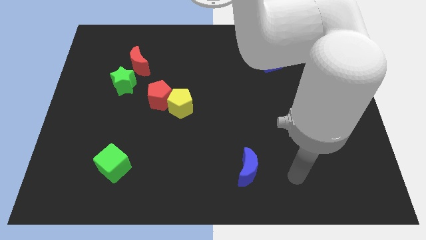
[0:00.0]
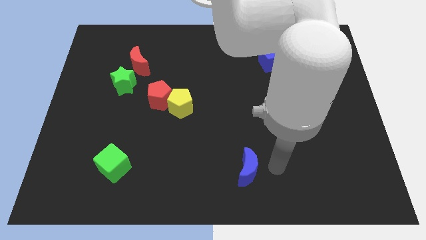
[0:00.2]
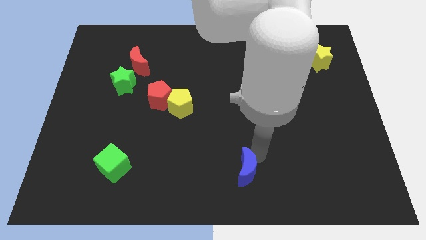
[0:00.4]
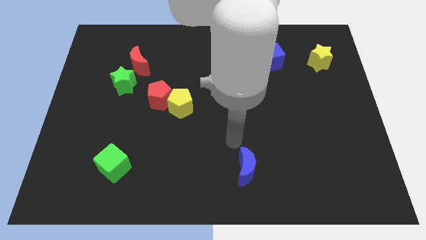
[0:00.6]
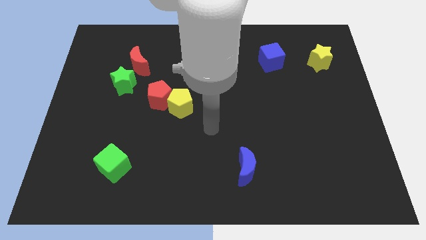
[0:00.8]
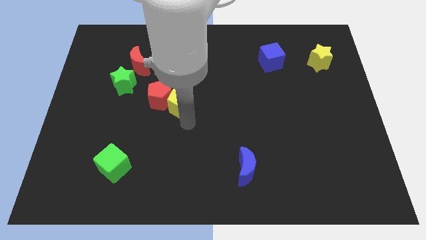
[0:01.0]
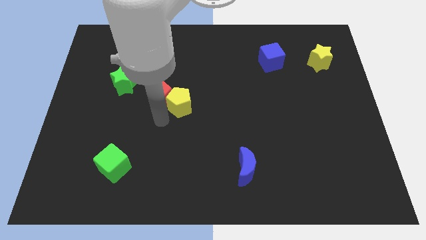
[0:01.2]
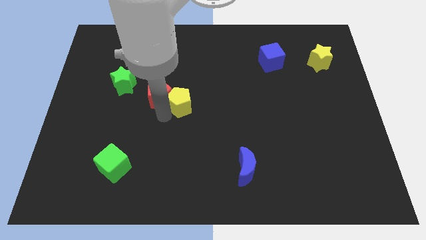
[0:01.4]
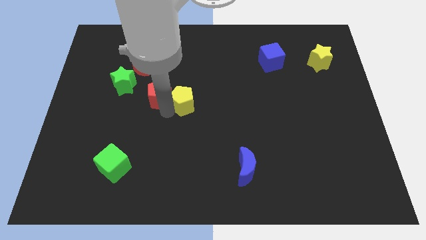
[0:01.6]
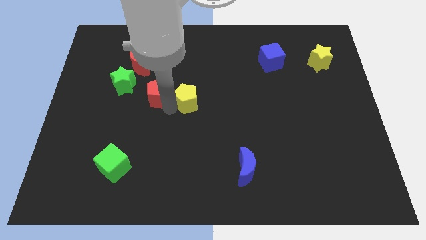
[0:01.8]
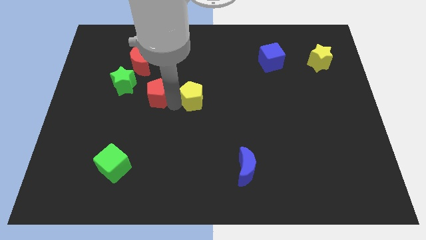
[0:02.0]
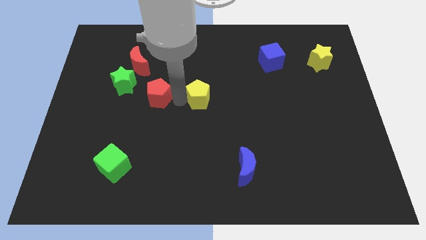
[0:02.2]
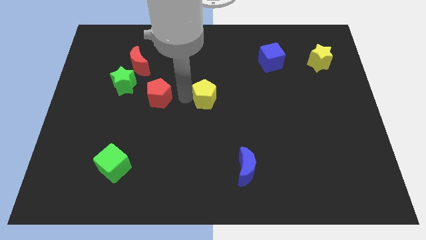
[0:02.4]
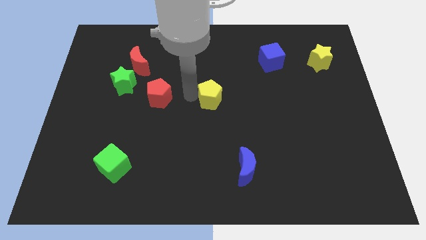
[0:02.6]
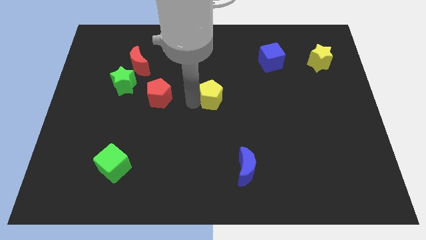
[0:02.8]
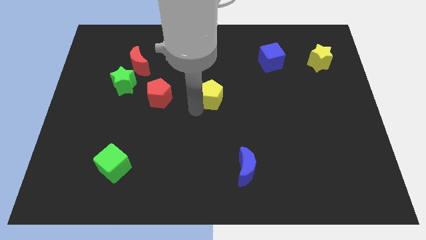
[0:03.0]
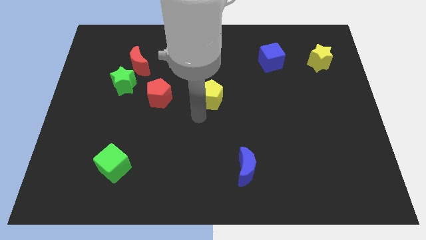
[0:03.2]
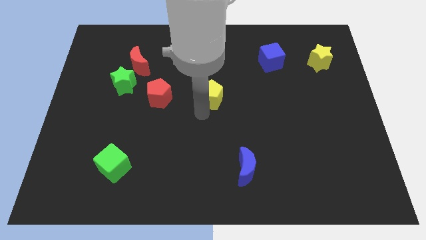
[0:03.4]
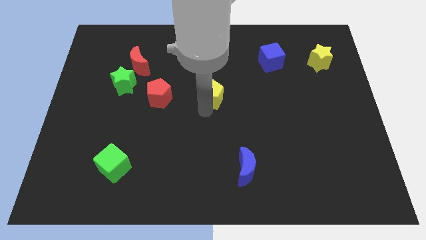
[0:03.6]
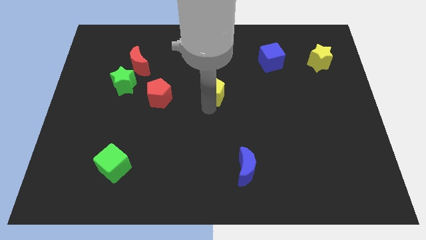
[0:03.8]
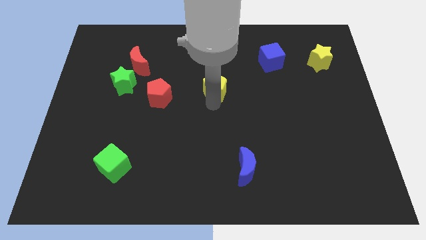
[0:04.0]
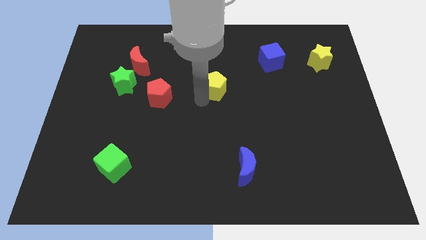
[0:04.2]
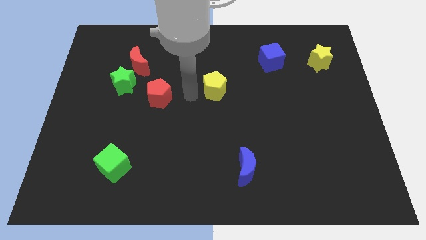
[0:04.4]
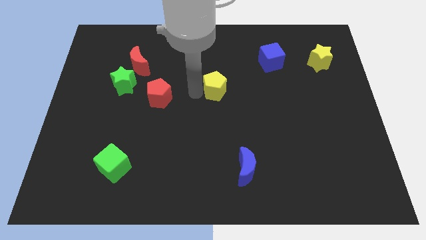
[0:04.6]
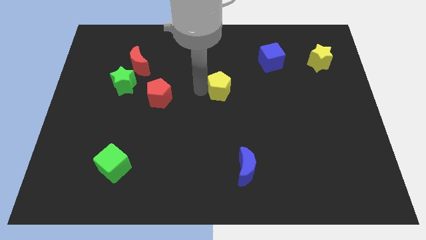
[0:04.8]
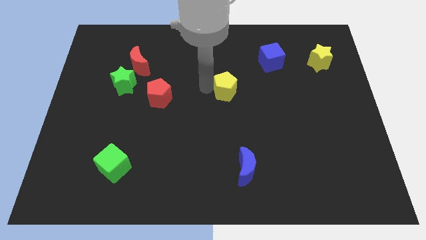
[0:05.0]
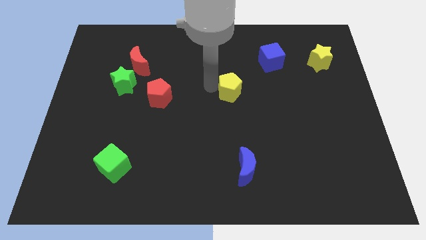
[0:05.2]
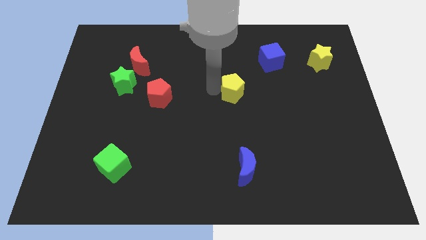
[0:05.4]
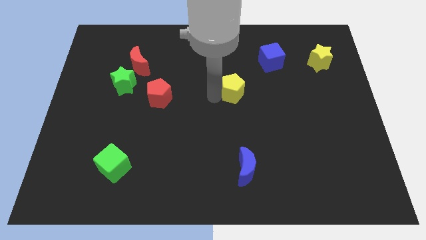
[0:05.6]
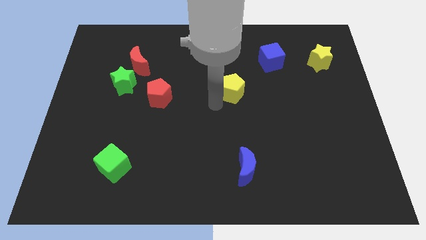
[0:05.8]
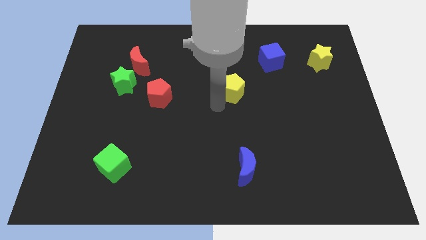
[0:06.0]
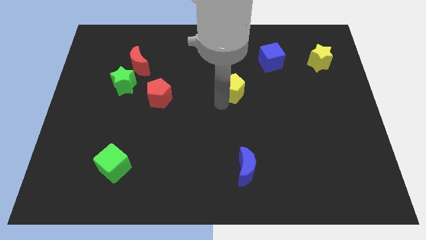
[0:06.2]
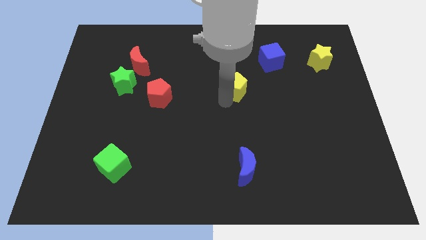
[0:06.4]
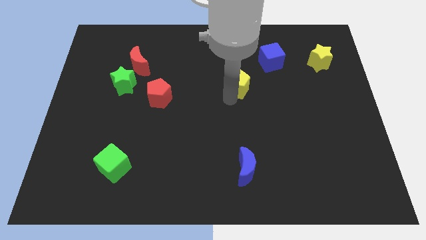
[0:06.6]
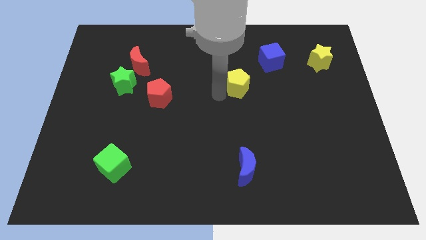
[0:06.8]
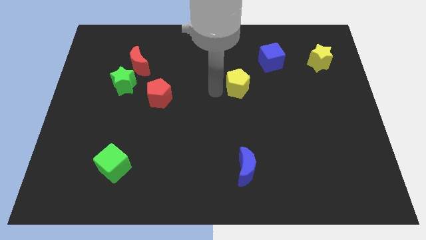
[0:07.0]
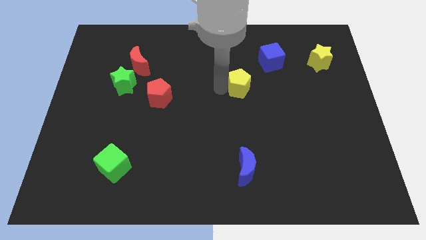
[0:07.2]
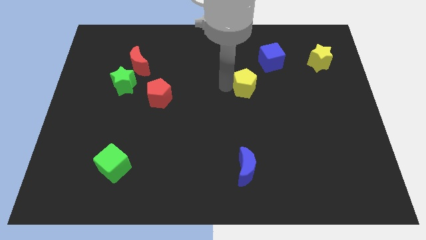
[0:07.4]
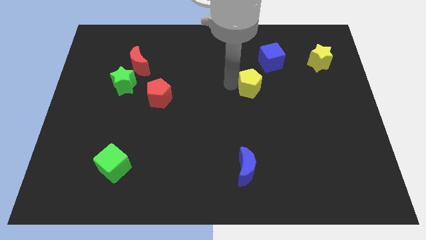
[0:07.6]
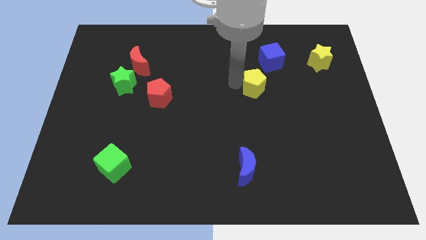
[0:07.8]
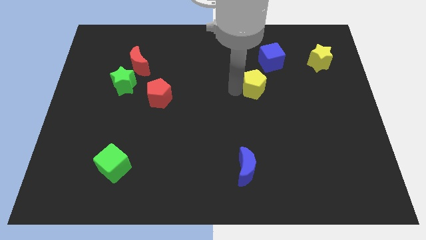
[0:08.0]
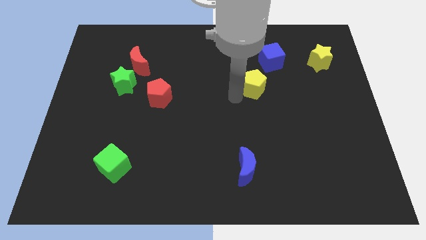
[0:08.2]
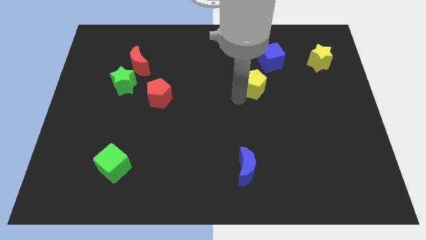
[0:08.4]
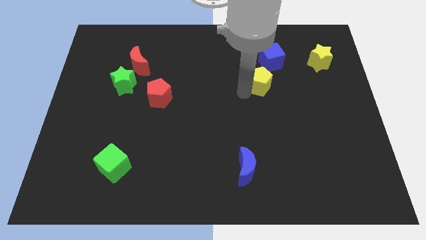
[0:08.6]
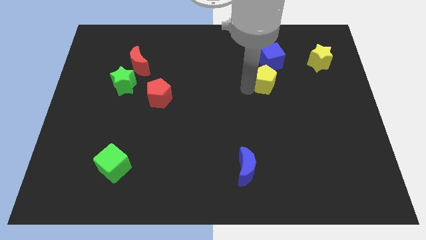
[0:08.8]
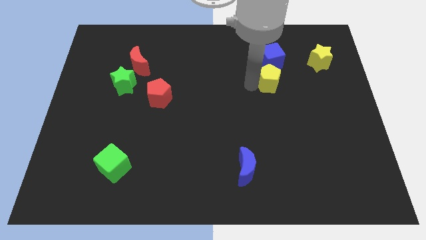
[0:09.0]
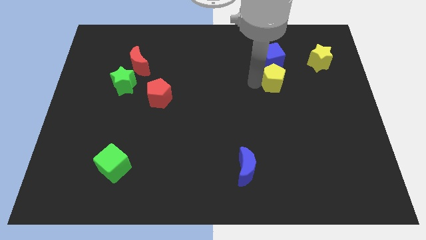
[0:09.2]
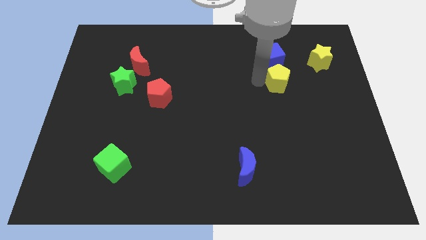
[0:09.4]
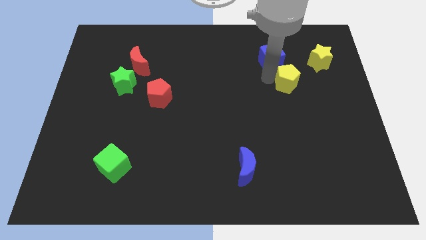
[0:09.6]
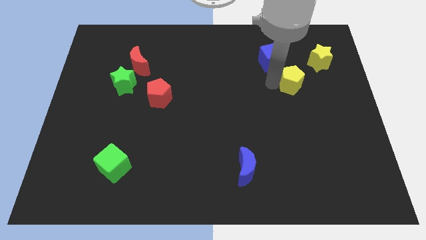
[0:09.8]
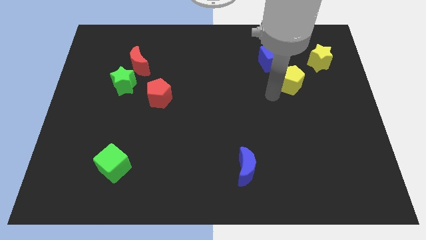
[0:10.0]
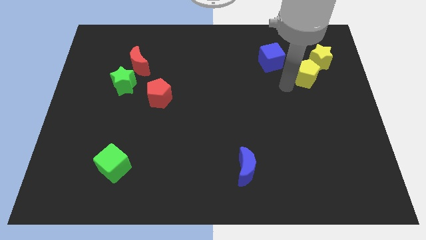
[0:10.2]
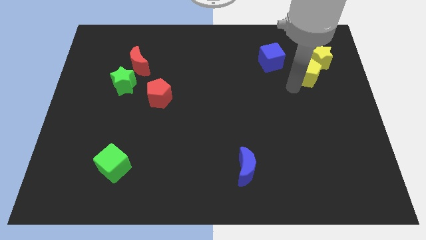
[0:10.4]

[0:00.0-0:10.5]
put the yellow pentagon towards the yellow star

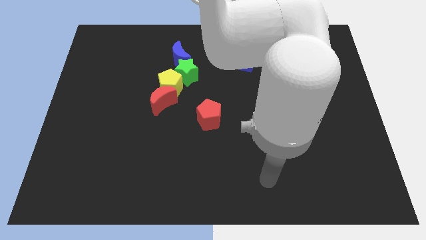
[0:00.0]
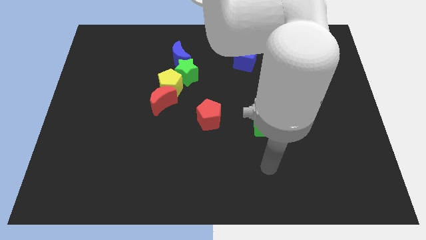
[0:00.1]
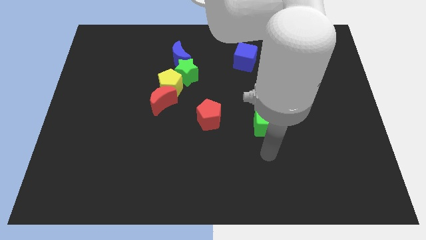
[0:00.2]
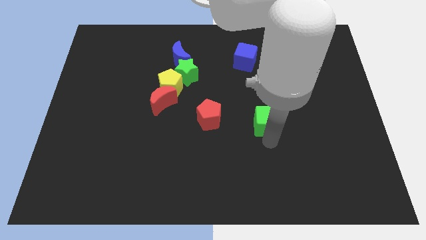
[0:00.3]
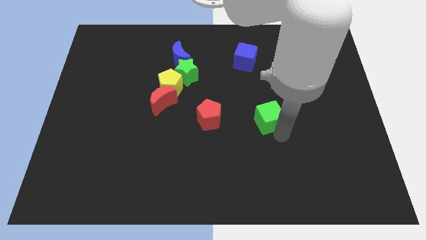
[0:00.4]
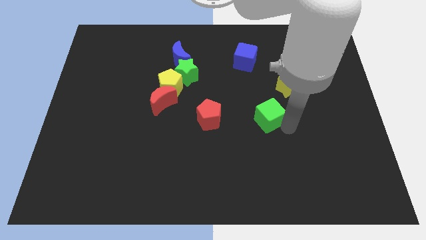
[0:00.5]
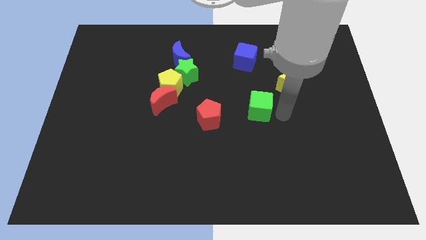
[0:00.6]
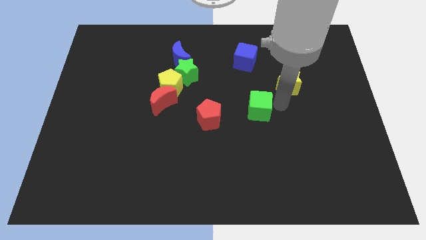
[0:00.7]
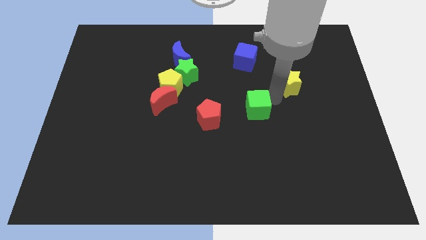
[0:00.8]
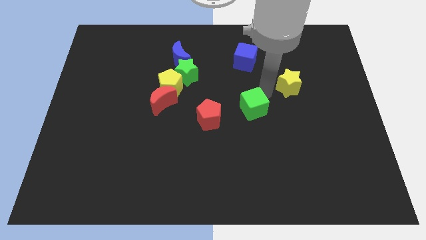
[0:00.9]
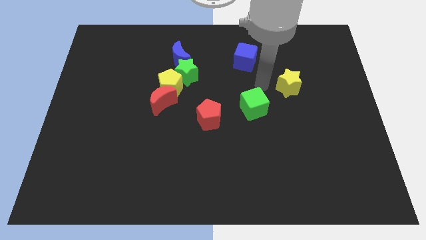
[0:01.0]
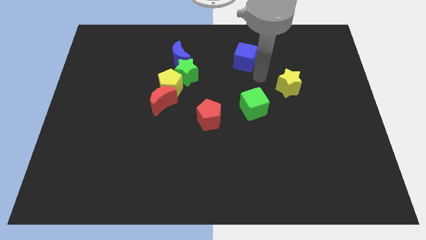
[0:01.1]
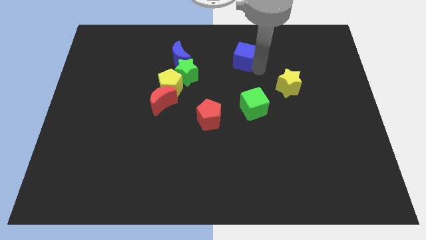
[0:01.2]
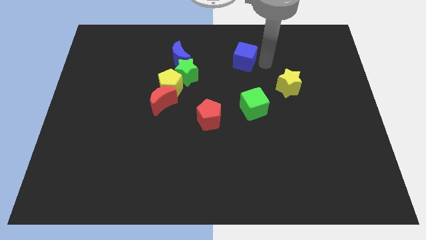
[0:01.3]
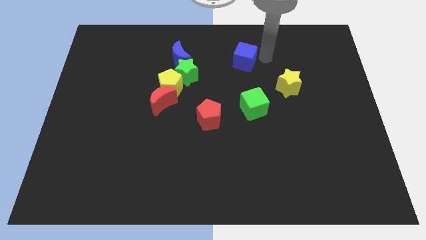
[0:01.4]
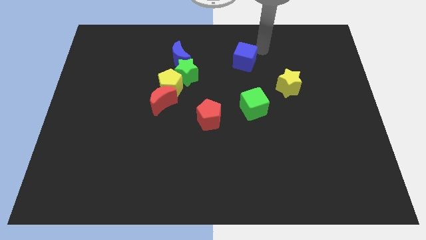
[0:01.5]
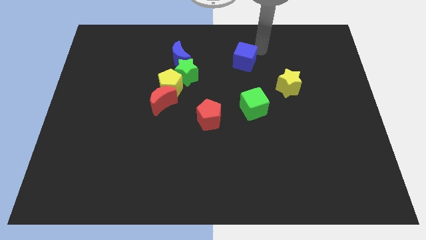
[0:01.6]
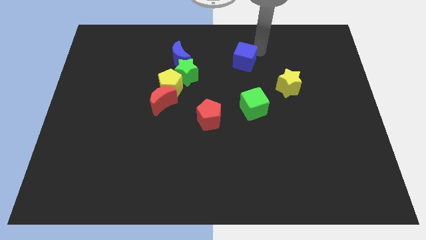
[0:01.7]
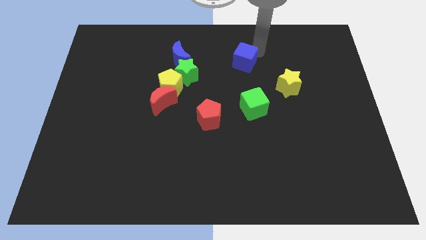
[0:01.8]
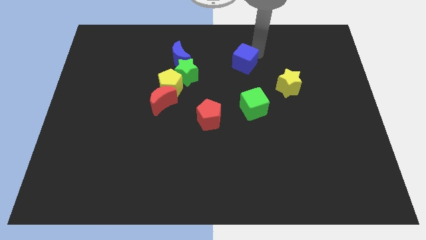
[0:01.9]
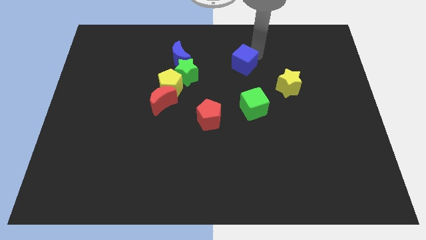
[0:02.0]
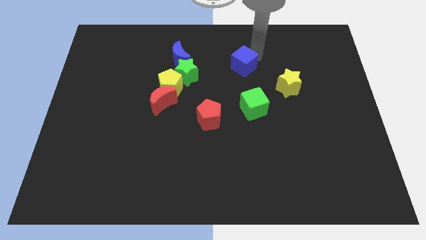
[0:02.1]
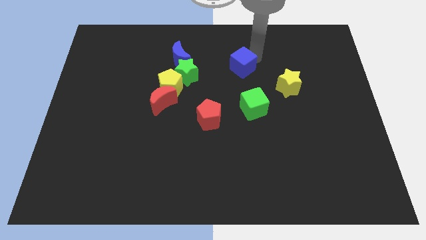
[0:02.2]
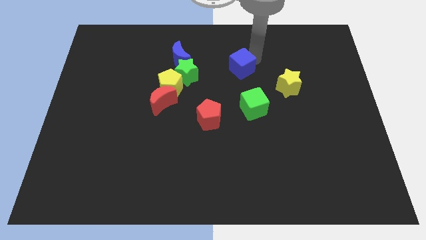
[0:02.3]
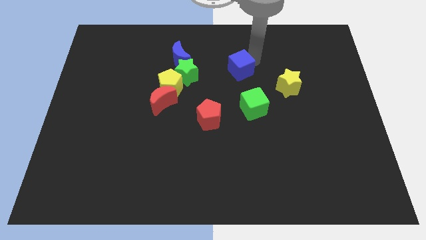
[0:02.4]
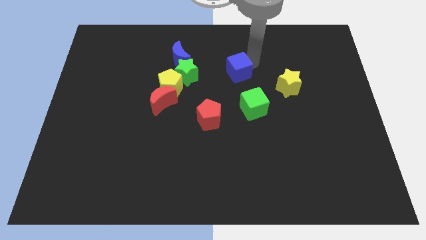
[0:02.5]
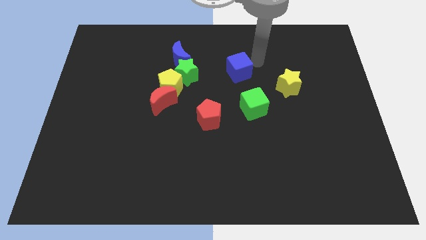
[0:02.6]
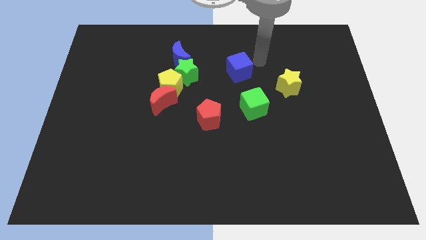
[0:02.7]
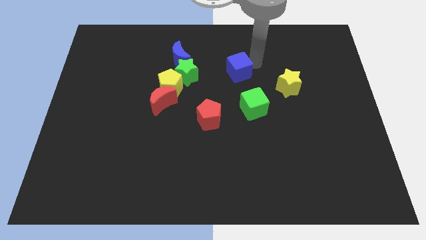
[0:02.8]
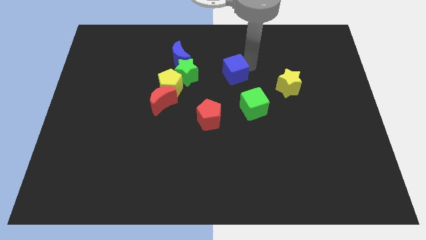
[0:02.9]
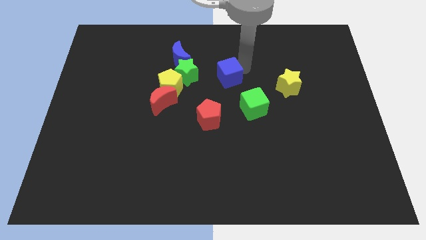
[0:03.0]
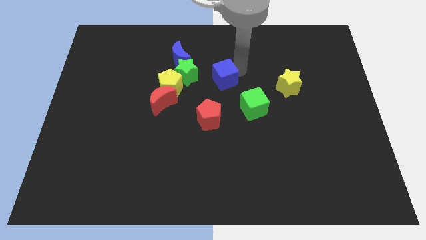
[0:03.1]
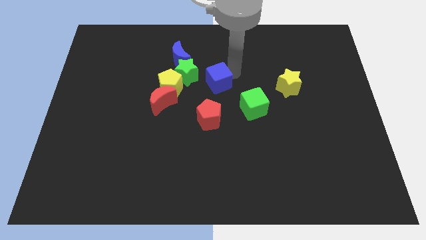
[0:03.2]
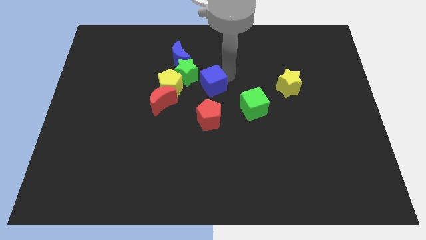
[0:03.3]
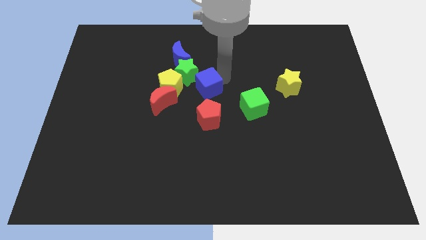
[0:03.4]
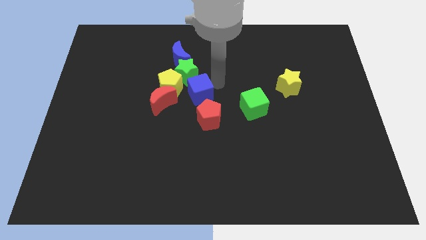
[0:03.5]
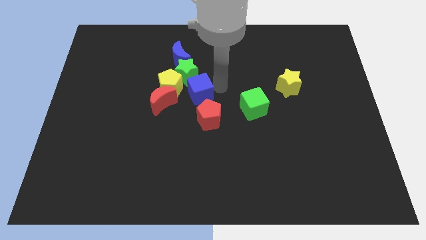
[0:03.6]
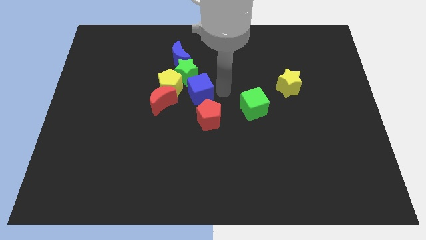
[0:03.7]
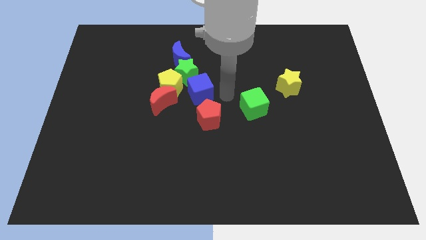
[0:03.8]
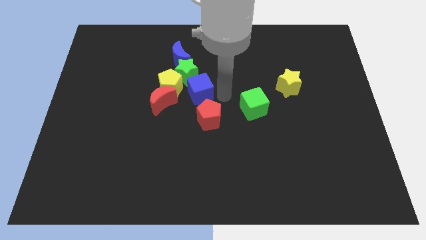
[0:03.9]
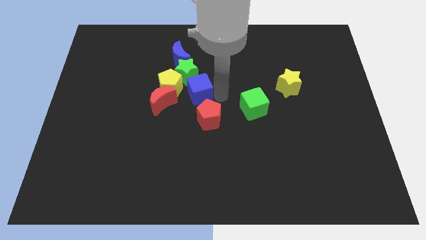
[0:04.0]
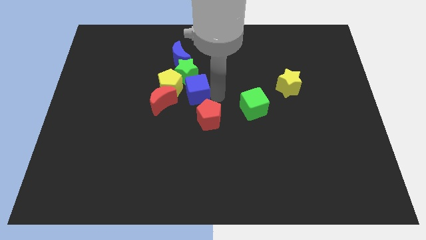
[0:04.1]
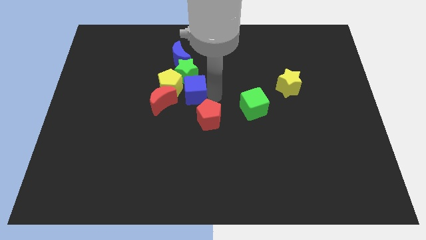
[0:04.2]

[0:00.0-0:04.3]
slide the blue cube towards the yellow pentagon
